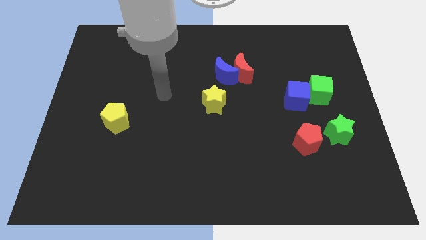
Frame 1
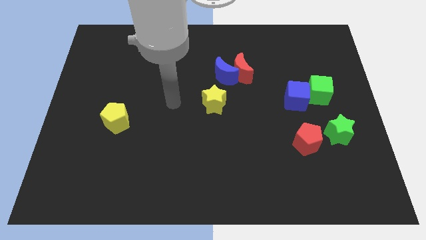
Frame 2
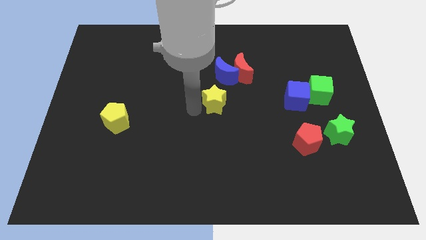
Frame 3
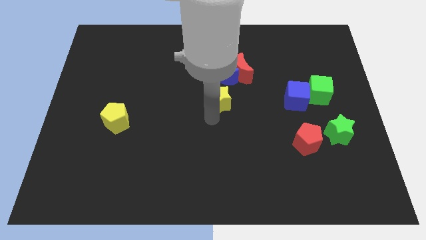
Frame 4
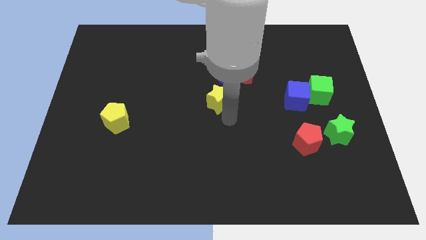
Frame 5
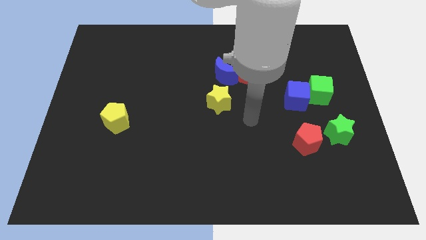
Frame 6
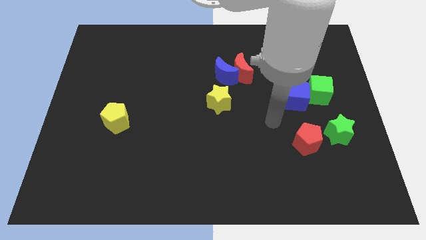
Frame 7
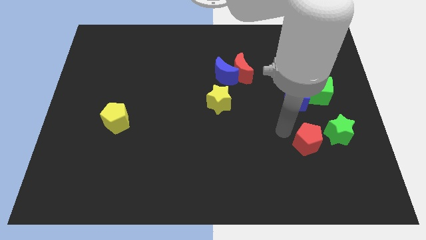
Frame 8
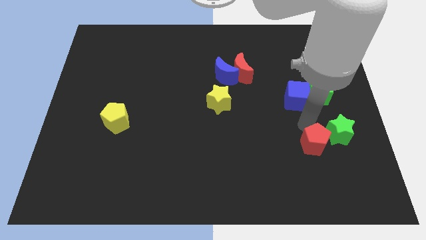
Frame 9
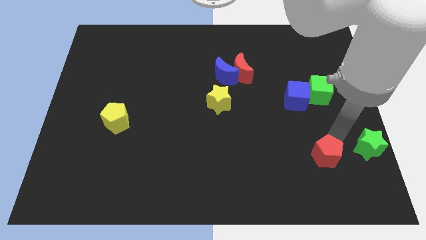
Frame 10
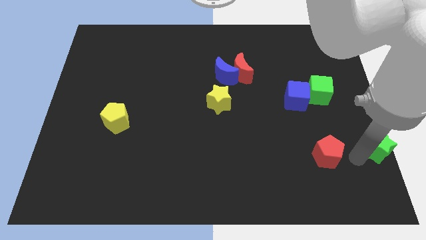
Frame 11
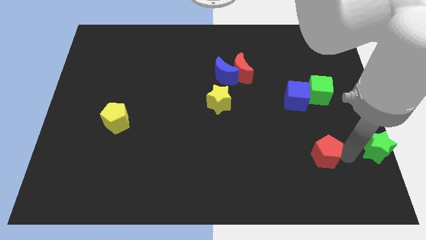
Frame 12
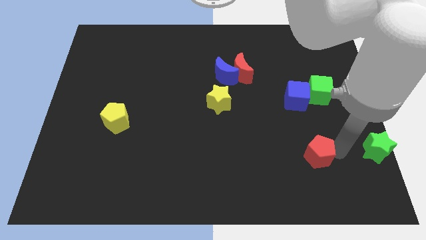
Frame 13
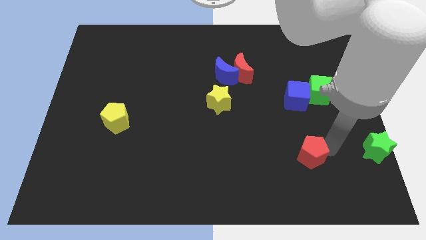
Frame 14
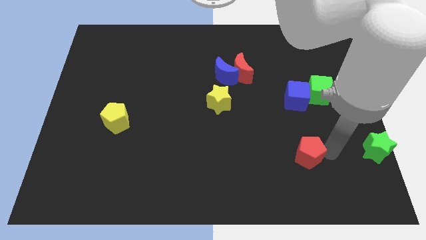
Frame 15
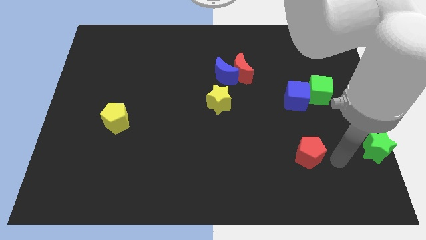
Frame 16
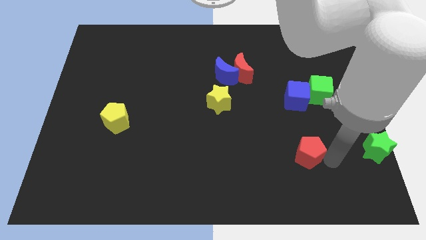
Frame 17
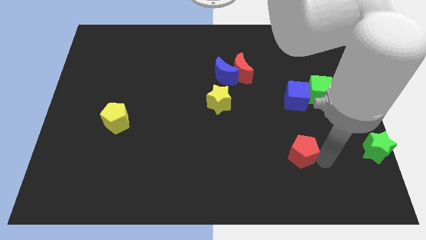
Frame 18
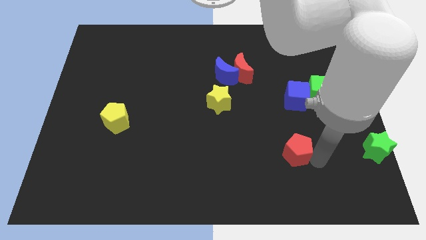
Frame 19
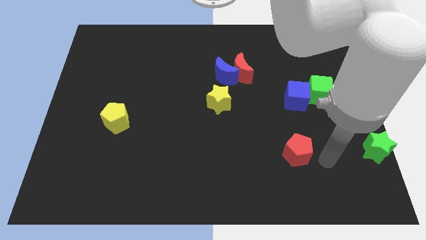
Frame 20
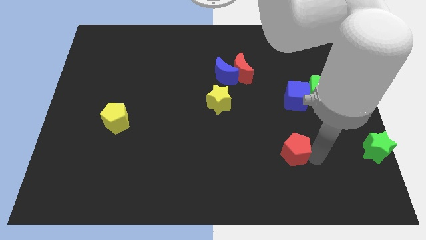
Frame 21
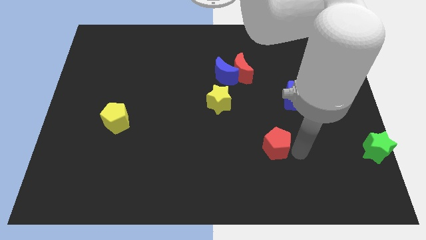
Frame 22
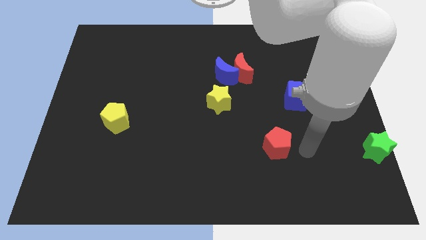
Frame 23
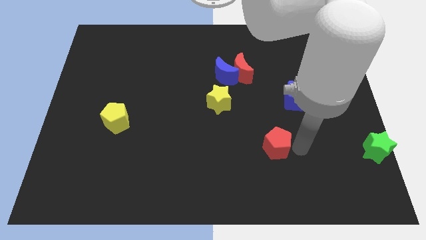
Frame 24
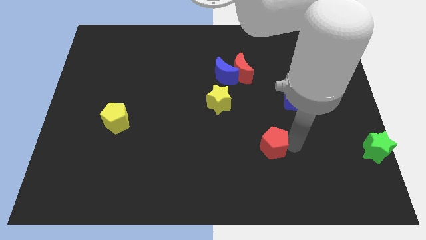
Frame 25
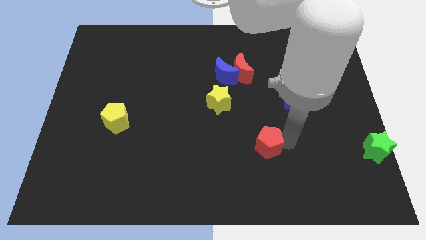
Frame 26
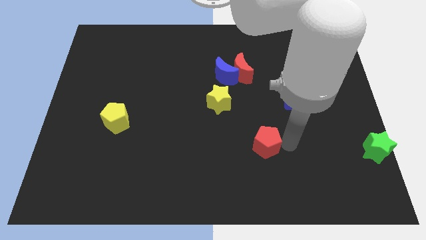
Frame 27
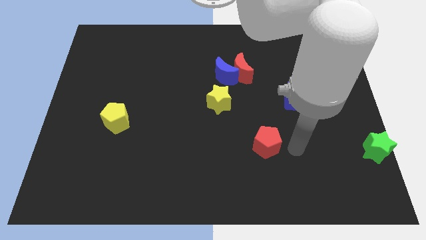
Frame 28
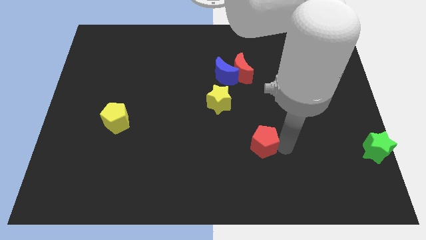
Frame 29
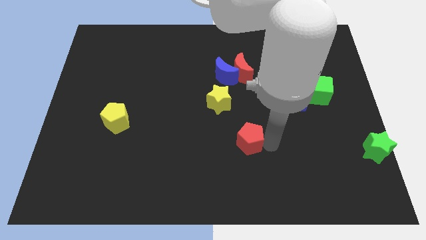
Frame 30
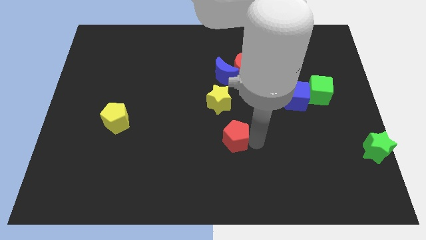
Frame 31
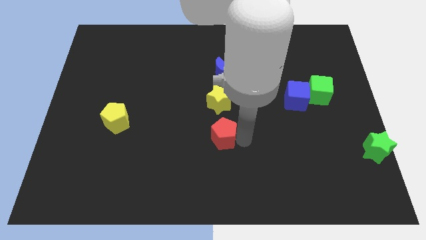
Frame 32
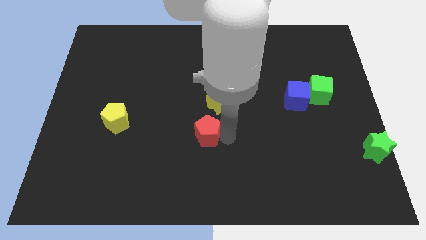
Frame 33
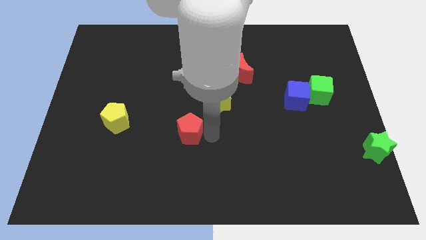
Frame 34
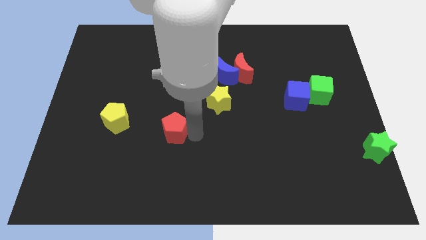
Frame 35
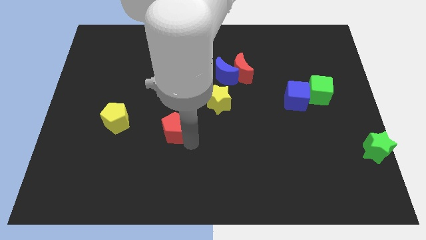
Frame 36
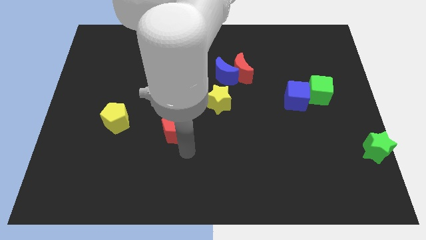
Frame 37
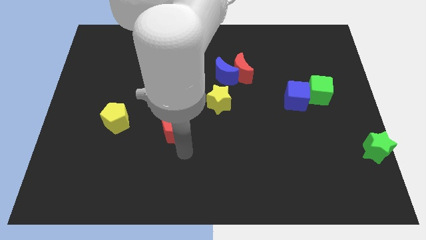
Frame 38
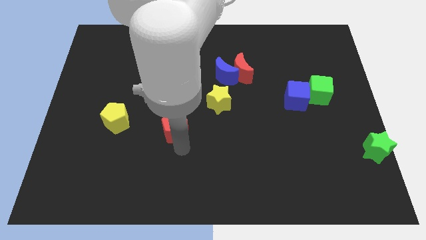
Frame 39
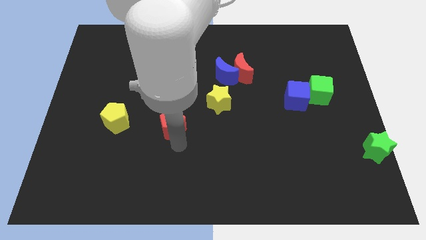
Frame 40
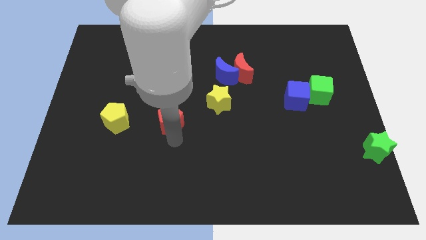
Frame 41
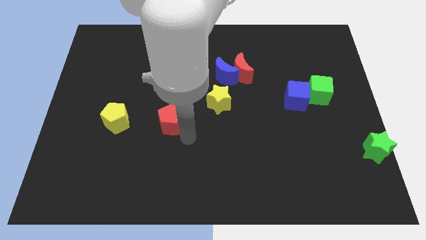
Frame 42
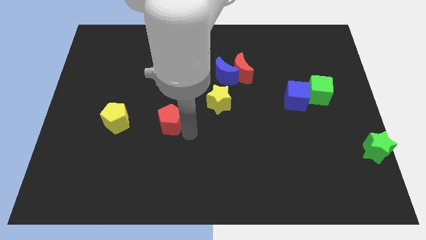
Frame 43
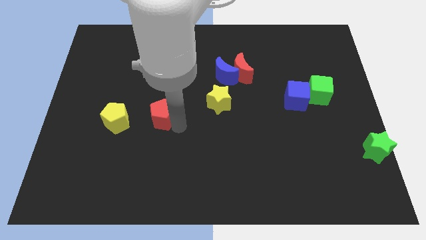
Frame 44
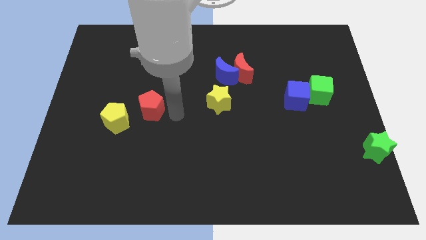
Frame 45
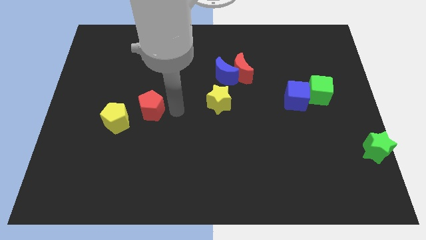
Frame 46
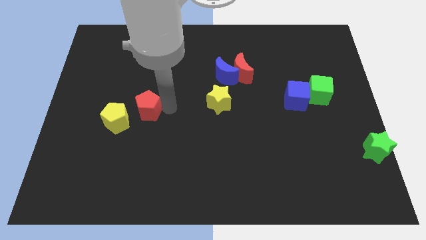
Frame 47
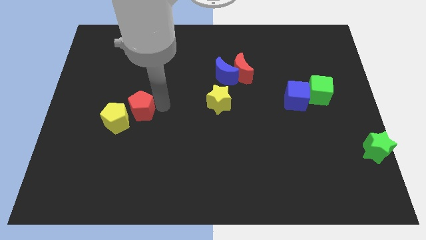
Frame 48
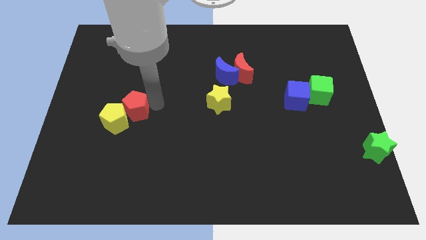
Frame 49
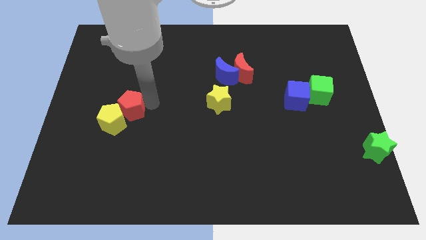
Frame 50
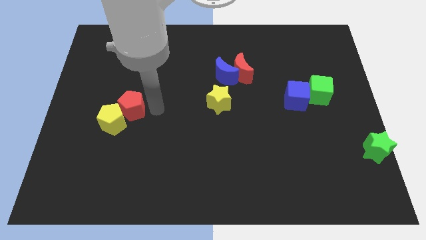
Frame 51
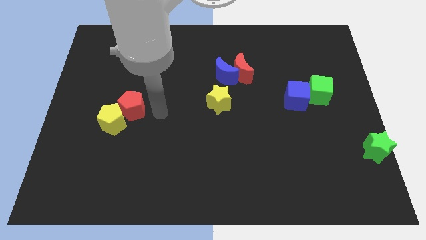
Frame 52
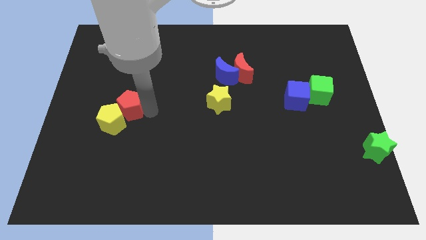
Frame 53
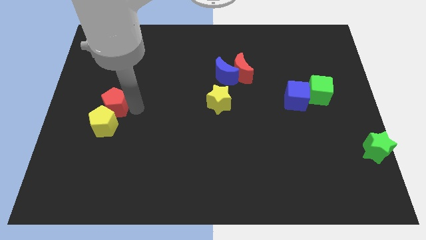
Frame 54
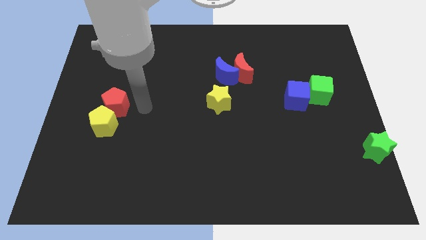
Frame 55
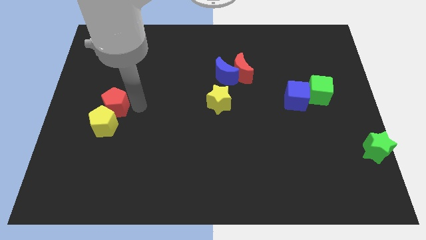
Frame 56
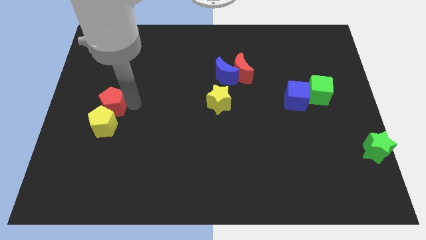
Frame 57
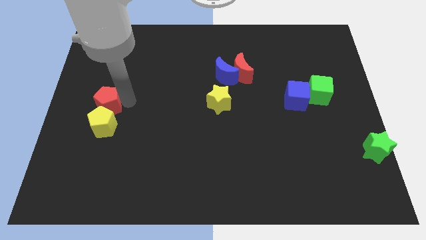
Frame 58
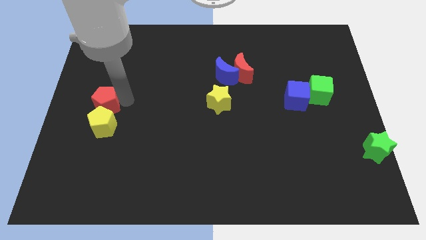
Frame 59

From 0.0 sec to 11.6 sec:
slide the red pentagon to the left side of the board

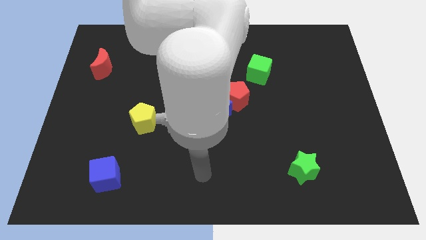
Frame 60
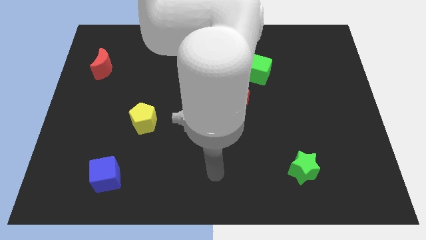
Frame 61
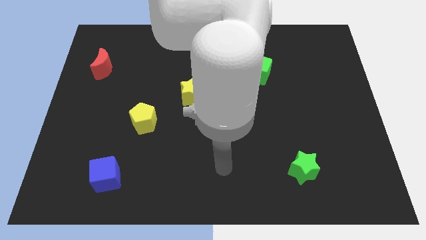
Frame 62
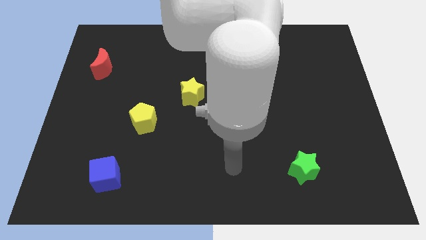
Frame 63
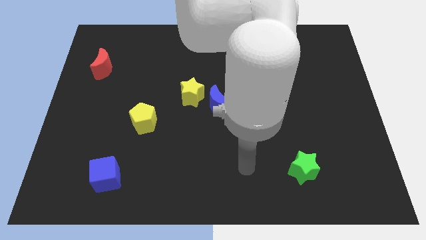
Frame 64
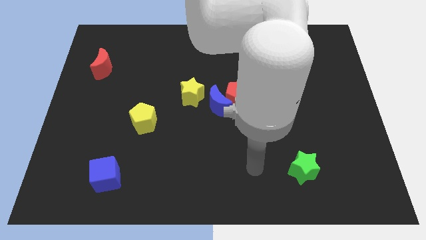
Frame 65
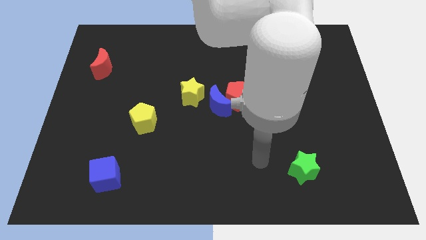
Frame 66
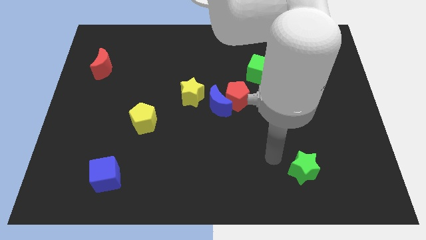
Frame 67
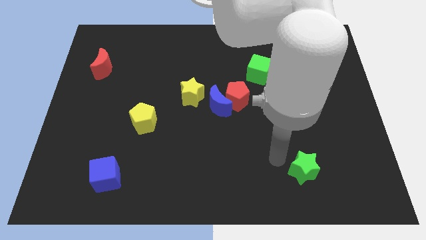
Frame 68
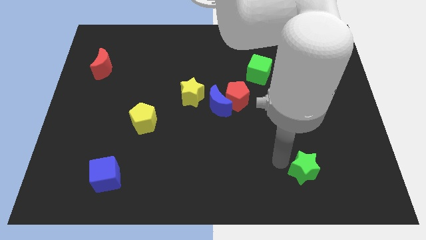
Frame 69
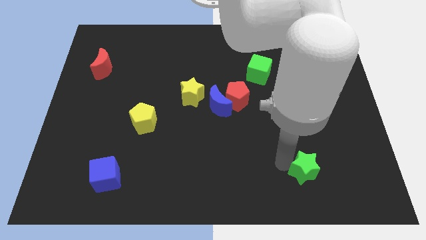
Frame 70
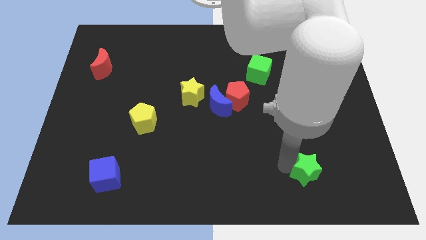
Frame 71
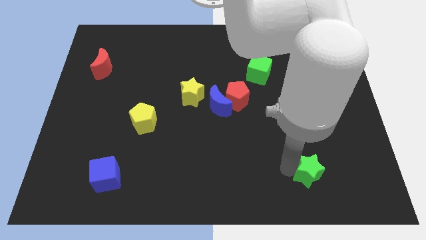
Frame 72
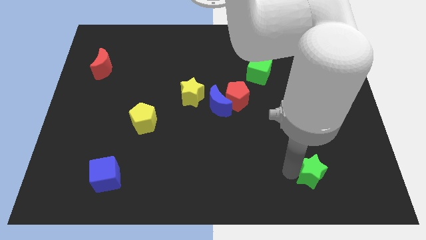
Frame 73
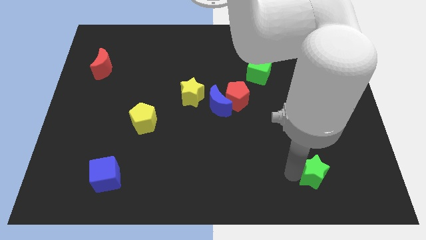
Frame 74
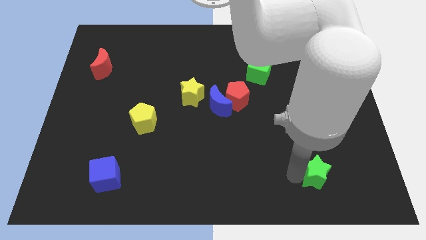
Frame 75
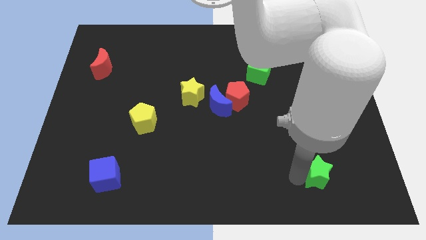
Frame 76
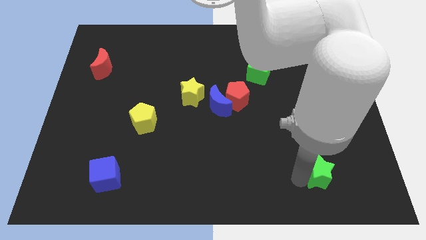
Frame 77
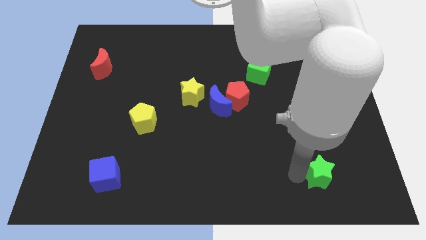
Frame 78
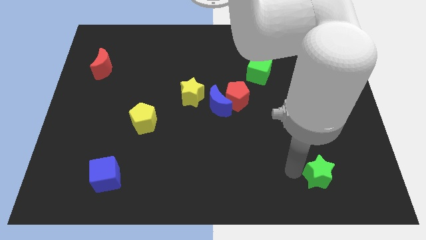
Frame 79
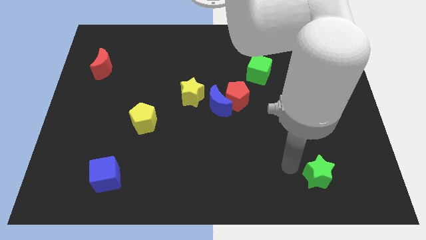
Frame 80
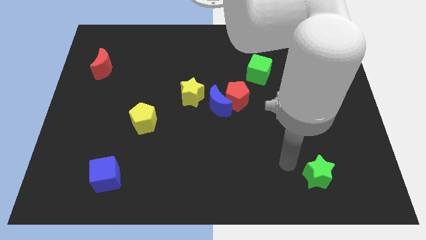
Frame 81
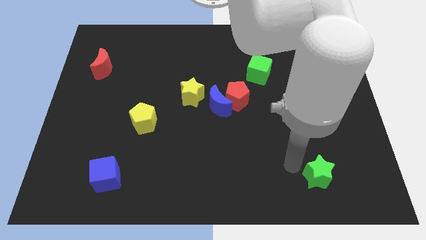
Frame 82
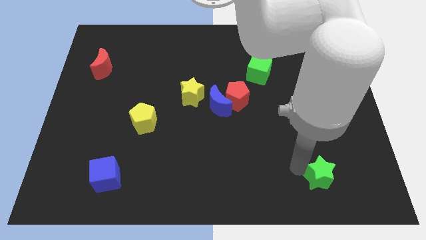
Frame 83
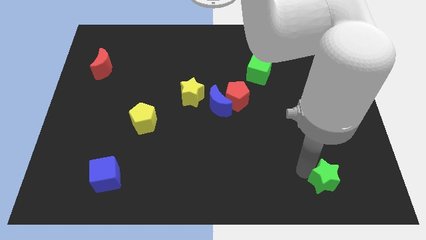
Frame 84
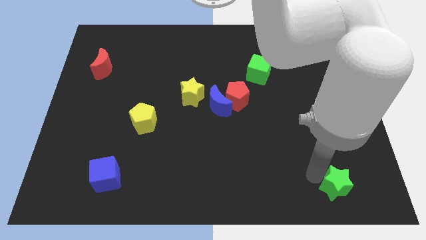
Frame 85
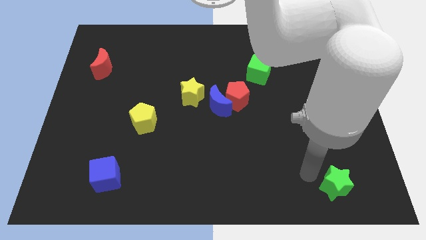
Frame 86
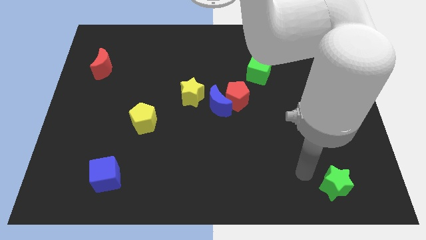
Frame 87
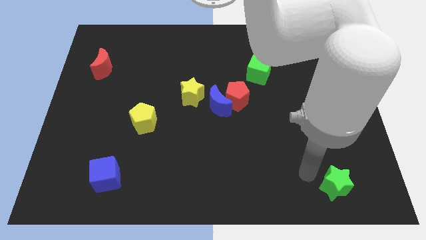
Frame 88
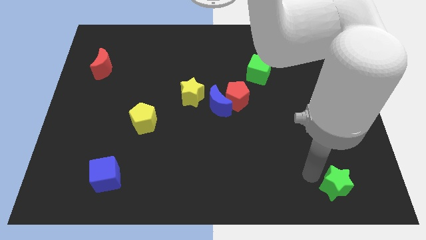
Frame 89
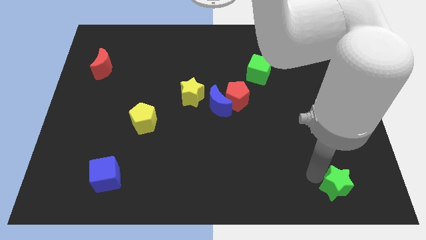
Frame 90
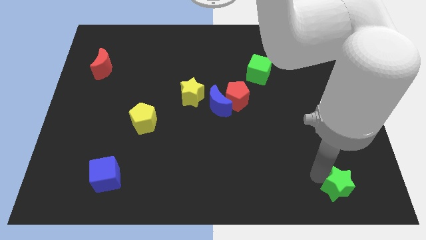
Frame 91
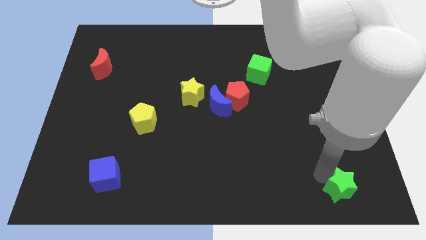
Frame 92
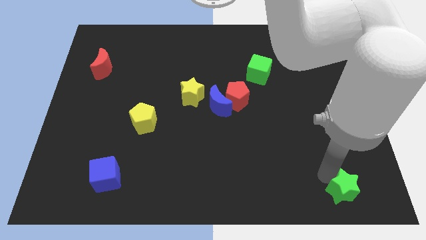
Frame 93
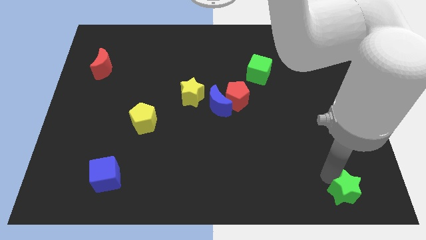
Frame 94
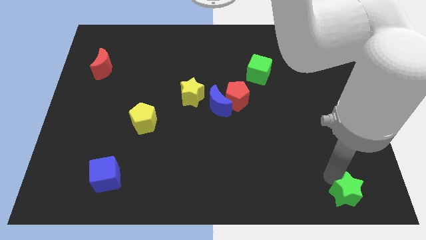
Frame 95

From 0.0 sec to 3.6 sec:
move the green star to the bottom right
